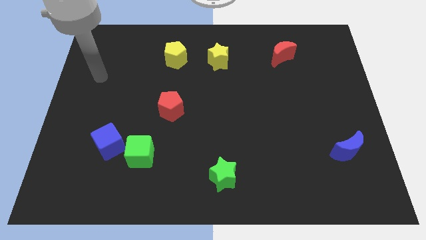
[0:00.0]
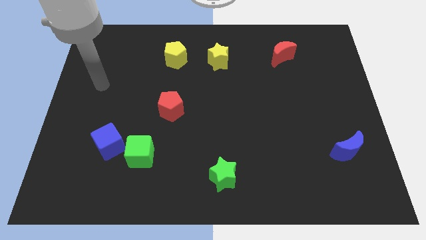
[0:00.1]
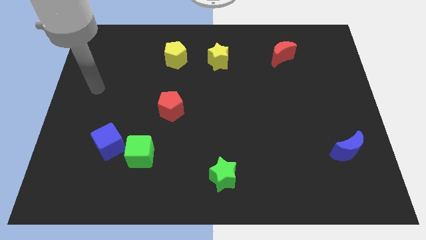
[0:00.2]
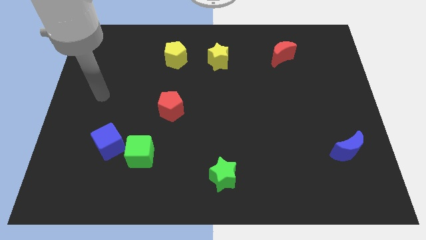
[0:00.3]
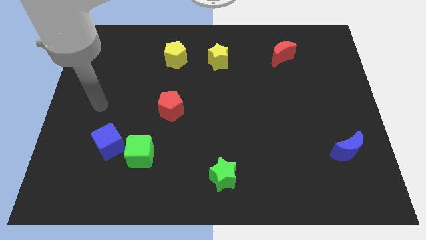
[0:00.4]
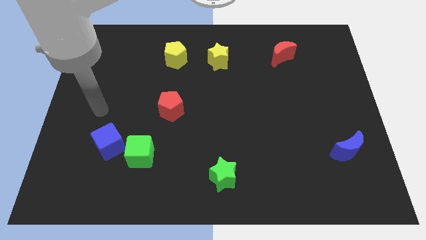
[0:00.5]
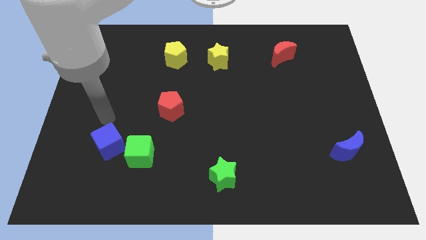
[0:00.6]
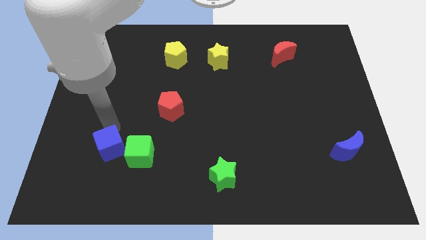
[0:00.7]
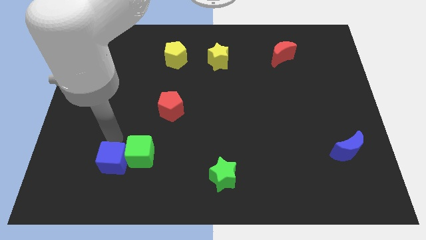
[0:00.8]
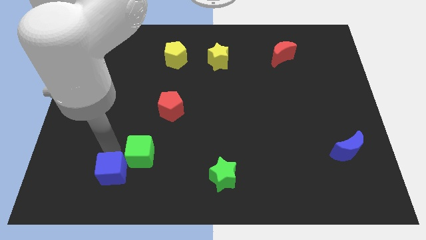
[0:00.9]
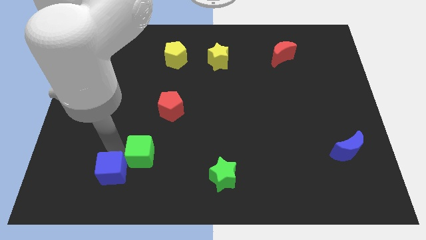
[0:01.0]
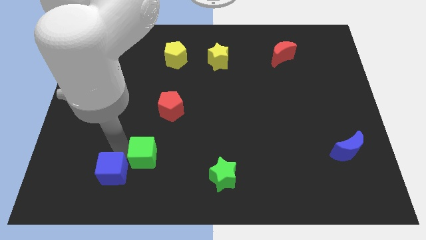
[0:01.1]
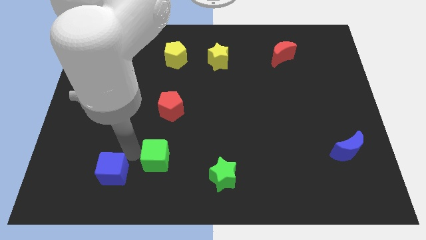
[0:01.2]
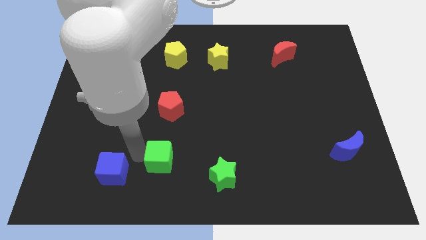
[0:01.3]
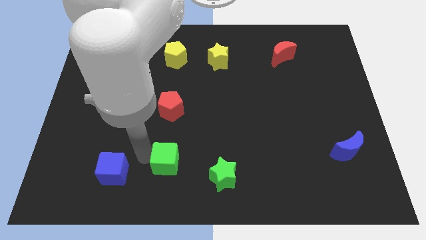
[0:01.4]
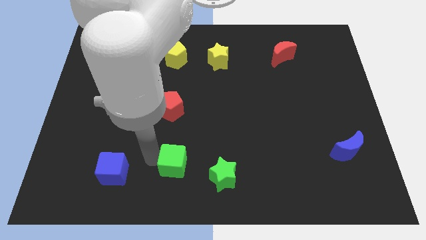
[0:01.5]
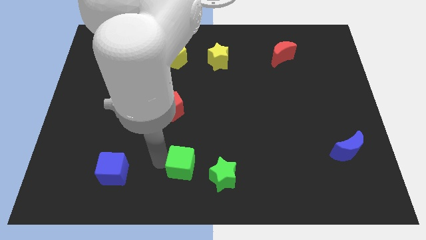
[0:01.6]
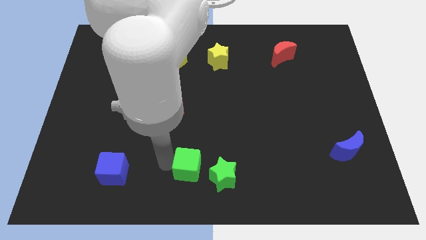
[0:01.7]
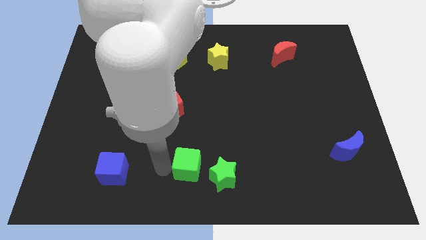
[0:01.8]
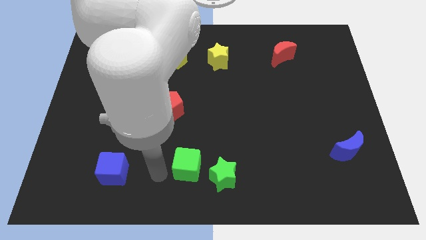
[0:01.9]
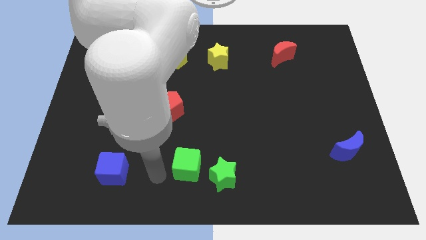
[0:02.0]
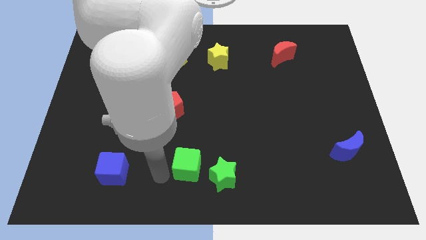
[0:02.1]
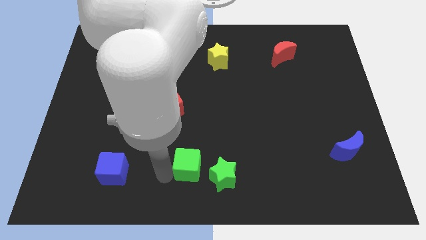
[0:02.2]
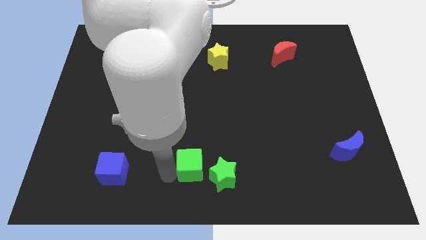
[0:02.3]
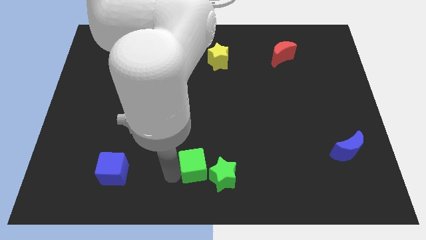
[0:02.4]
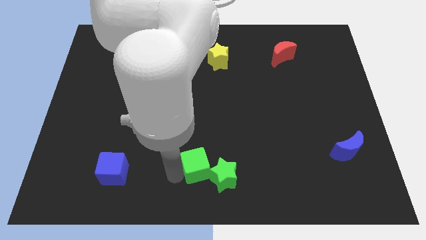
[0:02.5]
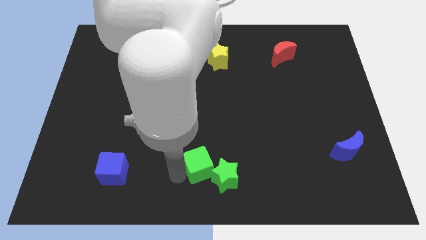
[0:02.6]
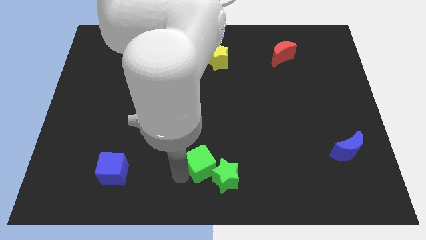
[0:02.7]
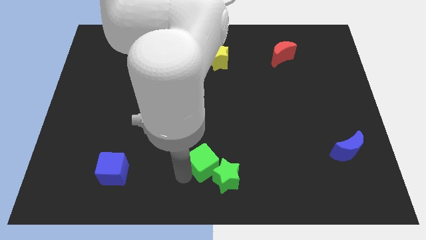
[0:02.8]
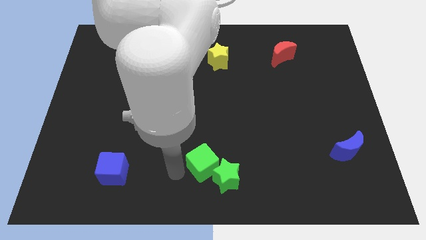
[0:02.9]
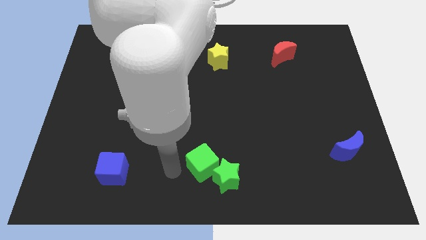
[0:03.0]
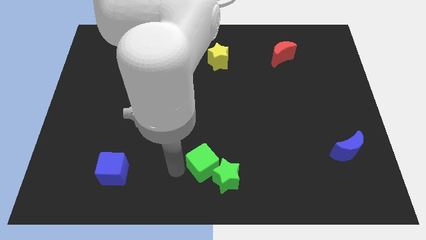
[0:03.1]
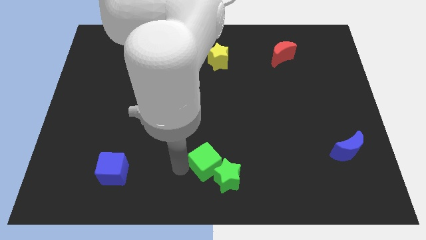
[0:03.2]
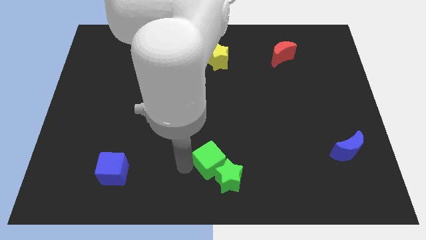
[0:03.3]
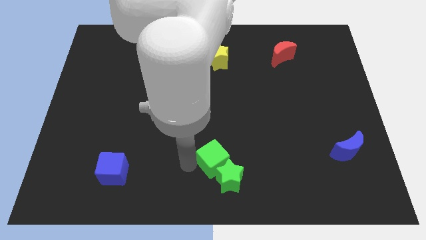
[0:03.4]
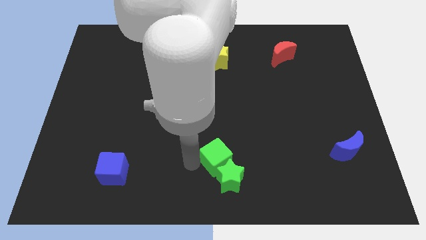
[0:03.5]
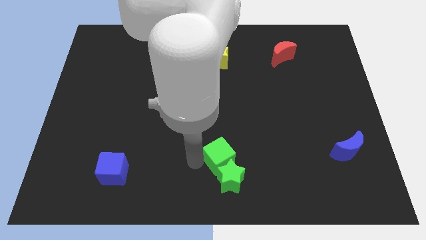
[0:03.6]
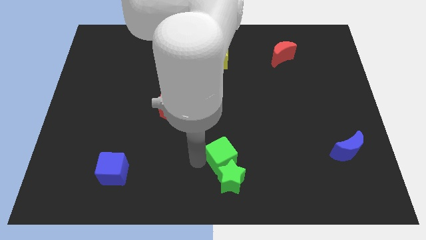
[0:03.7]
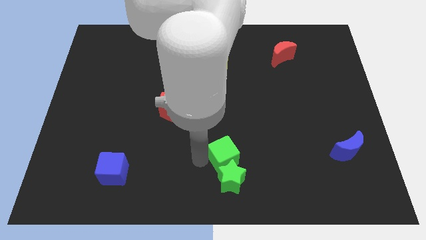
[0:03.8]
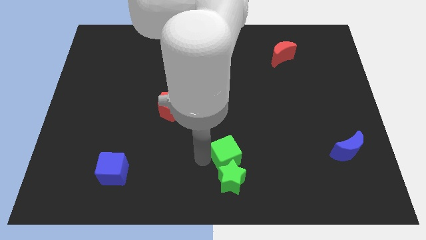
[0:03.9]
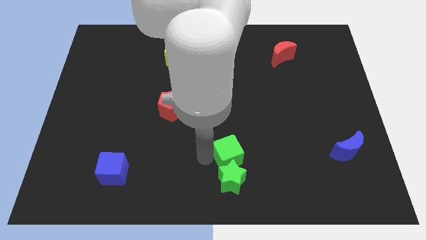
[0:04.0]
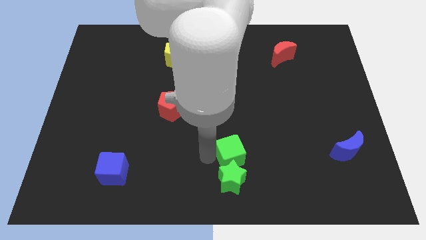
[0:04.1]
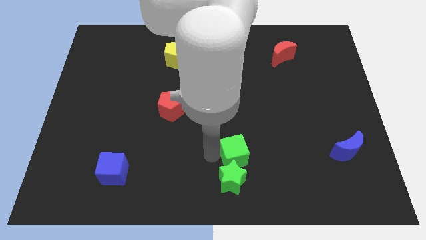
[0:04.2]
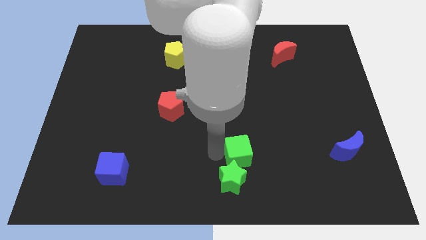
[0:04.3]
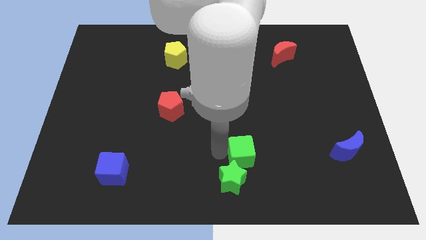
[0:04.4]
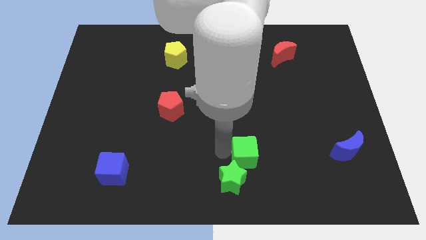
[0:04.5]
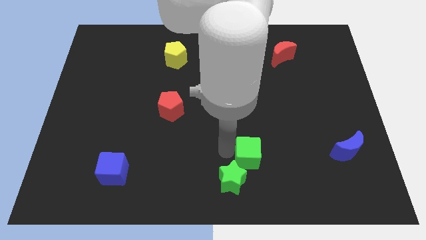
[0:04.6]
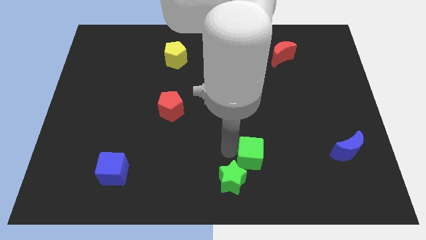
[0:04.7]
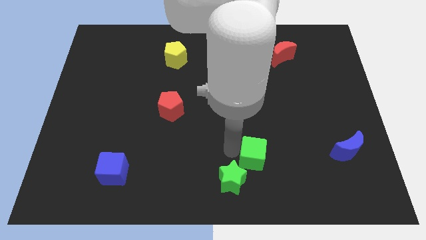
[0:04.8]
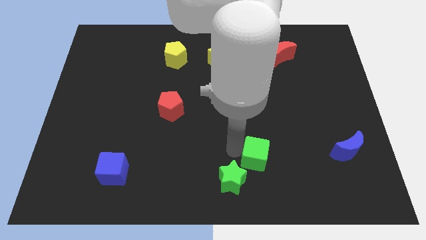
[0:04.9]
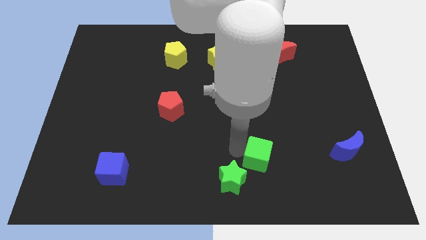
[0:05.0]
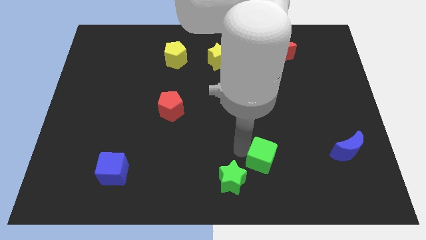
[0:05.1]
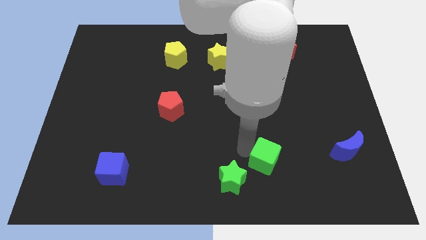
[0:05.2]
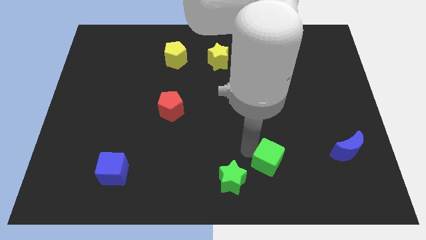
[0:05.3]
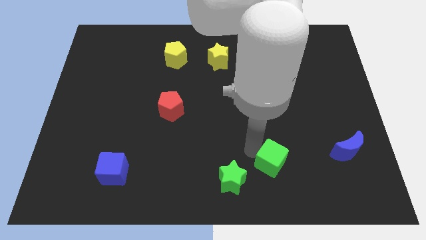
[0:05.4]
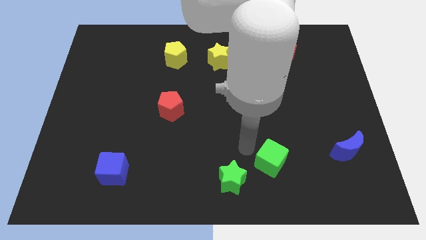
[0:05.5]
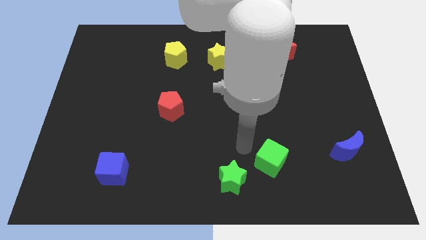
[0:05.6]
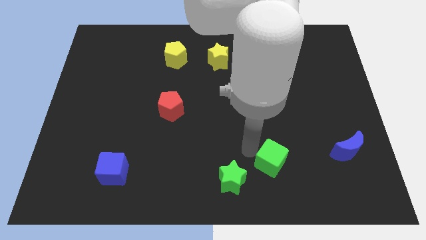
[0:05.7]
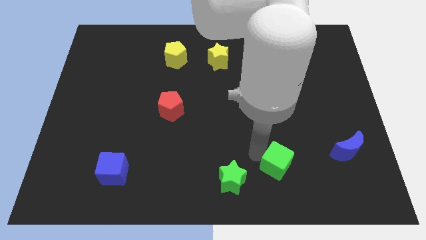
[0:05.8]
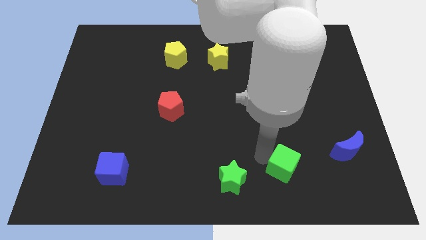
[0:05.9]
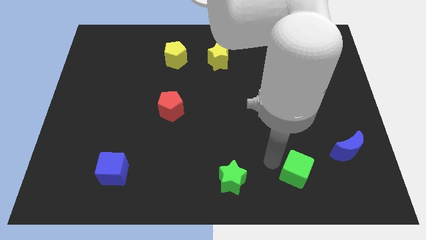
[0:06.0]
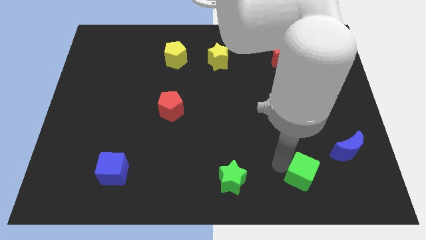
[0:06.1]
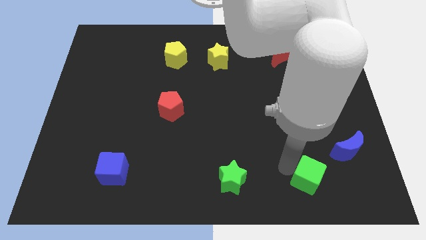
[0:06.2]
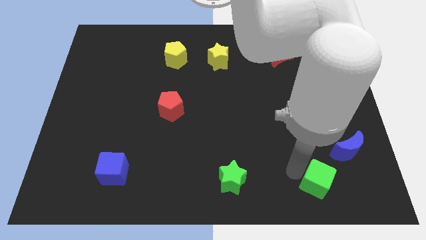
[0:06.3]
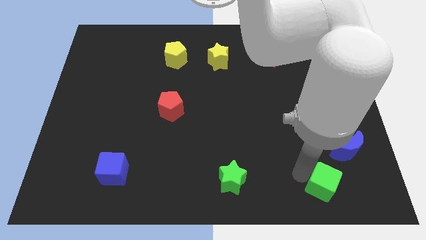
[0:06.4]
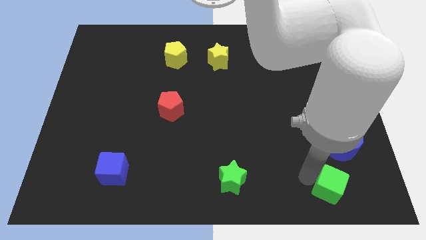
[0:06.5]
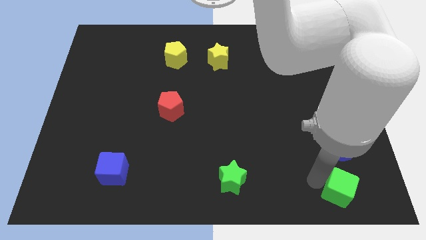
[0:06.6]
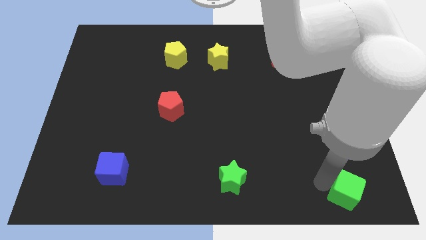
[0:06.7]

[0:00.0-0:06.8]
move the green cube to the bottom right
